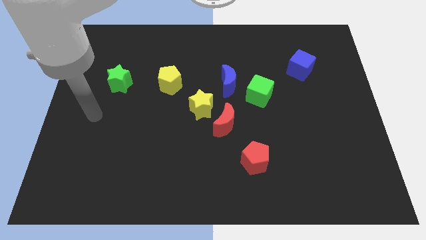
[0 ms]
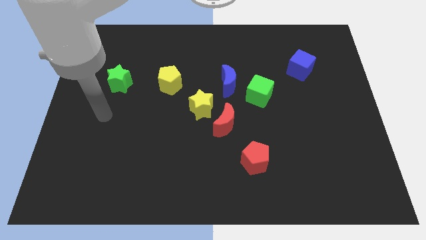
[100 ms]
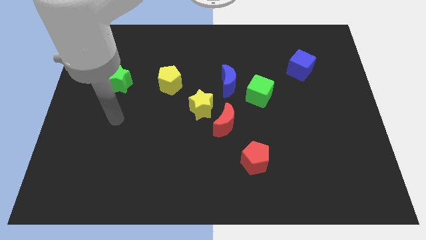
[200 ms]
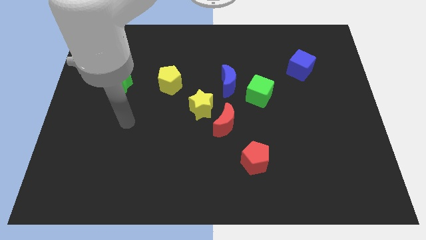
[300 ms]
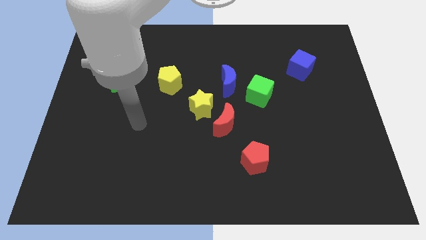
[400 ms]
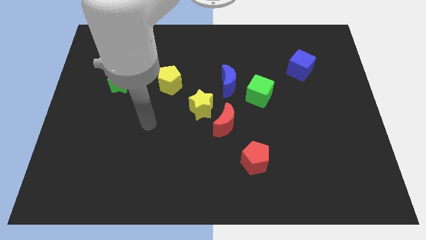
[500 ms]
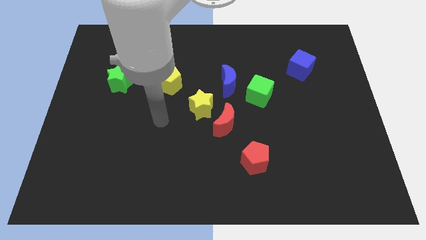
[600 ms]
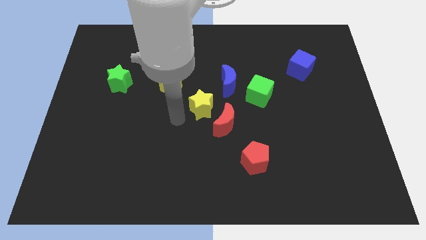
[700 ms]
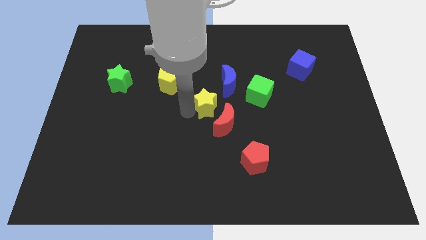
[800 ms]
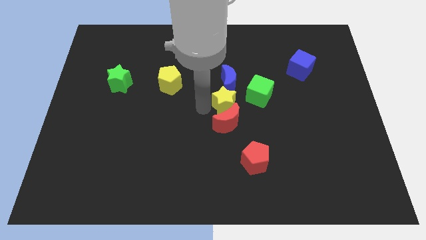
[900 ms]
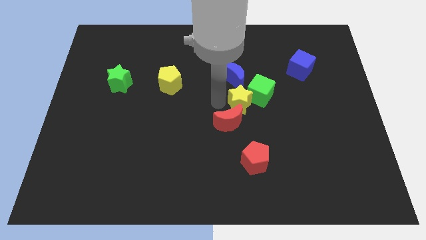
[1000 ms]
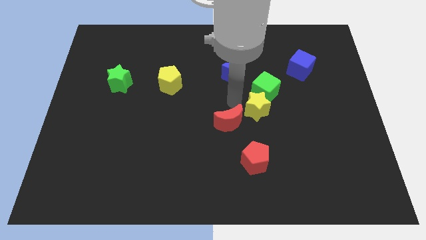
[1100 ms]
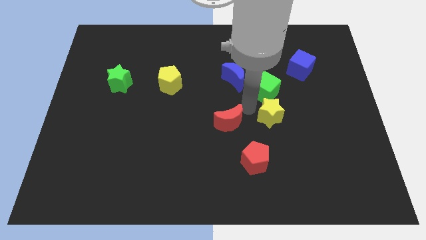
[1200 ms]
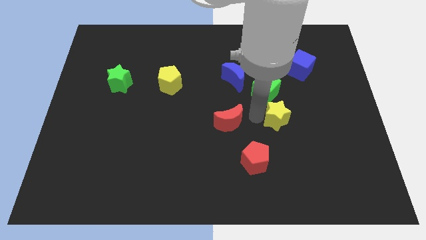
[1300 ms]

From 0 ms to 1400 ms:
move the red moon away from the yellow star

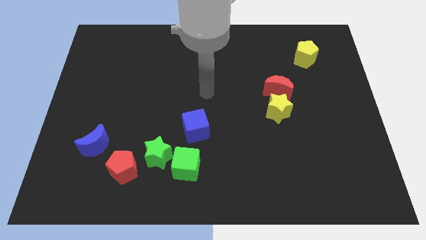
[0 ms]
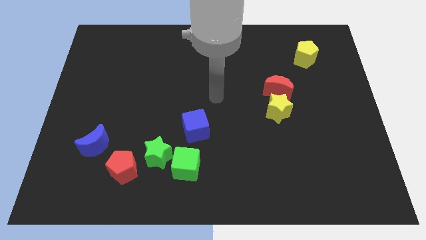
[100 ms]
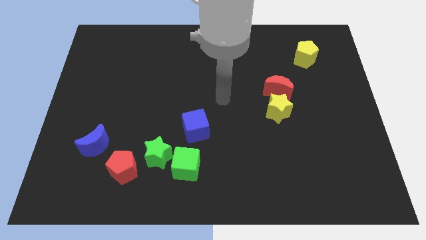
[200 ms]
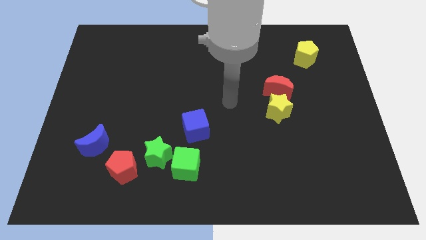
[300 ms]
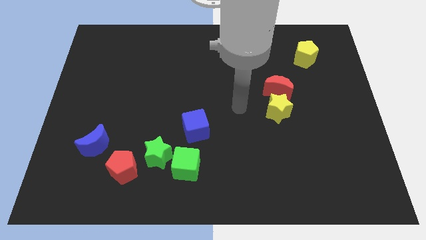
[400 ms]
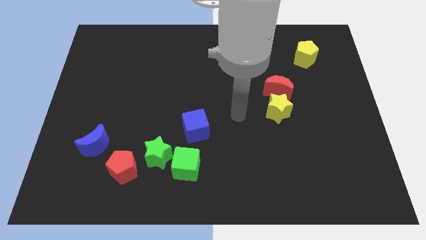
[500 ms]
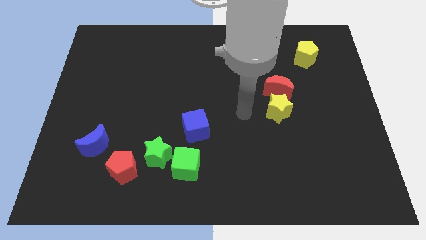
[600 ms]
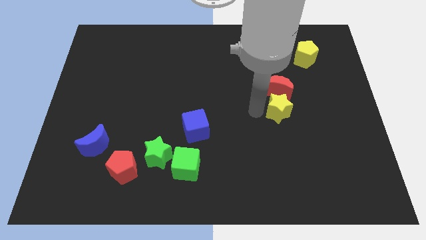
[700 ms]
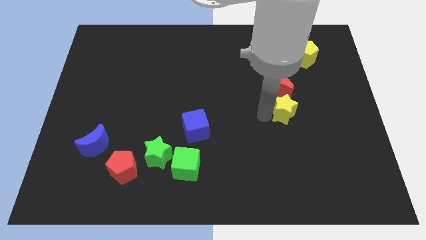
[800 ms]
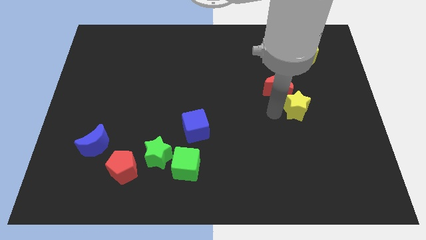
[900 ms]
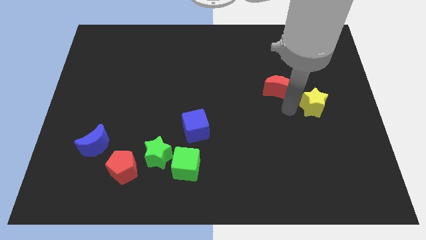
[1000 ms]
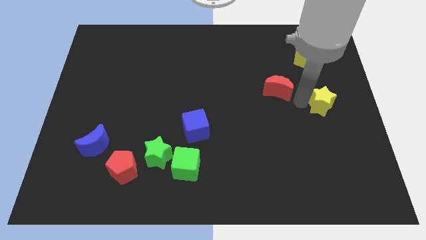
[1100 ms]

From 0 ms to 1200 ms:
separate the red moon from the yellow star

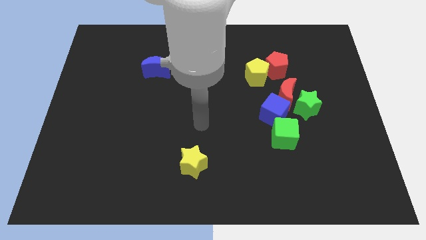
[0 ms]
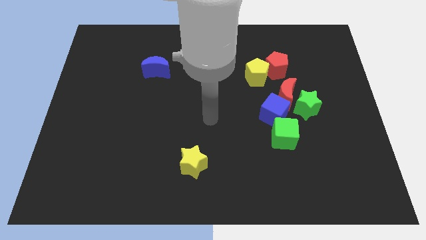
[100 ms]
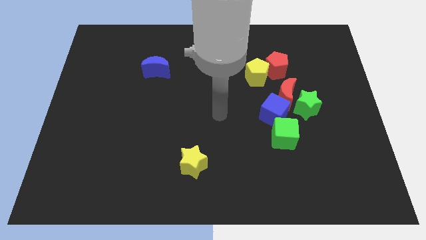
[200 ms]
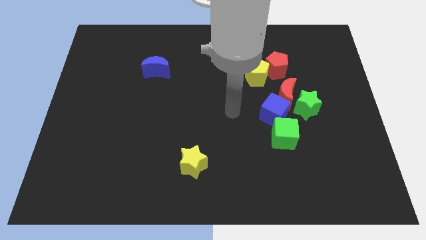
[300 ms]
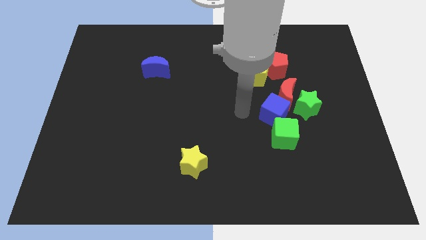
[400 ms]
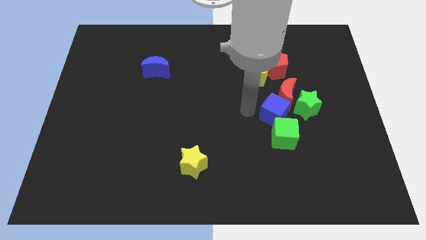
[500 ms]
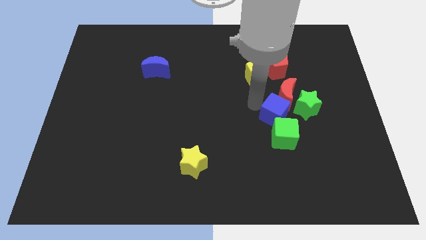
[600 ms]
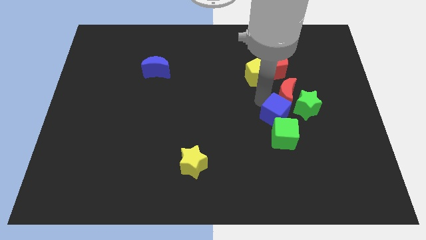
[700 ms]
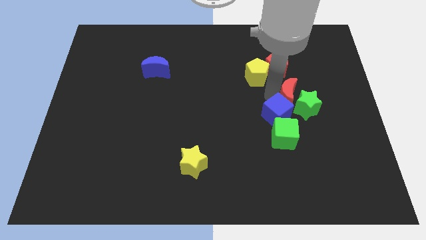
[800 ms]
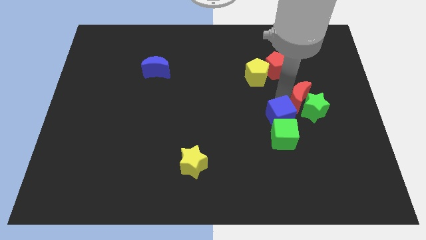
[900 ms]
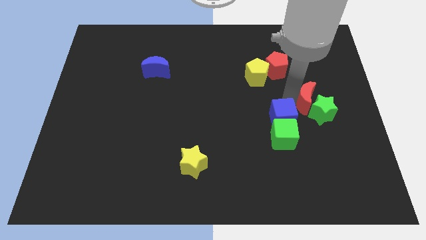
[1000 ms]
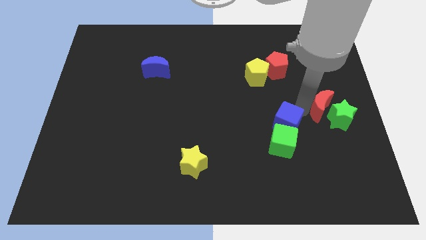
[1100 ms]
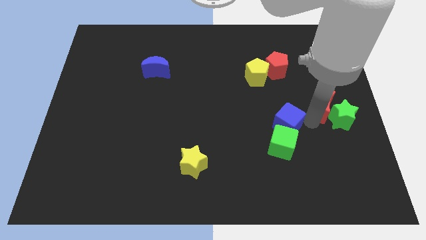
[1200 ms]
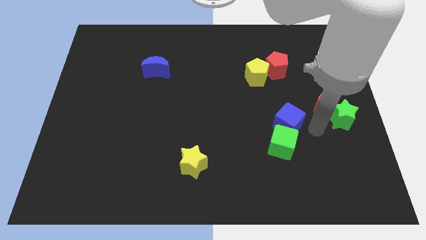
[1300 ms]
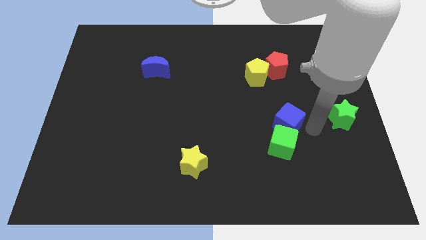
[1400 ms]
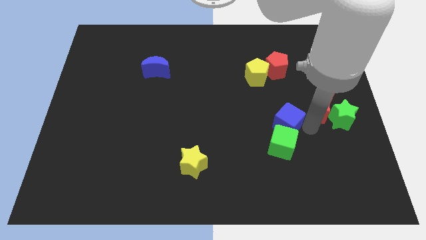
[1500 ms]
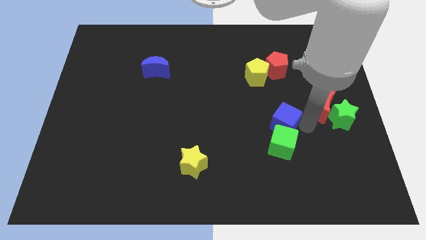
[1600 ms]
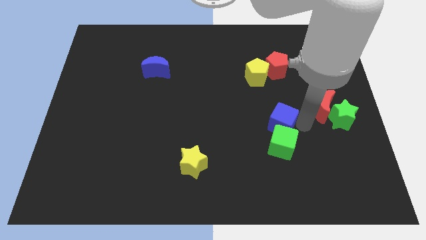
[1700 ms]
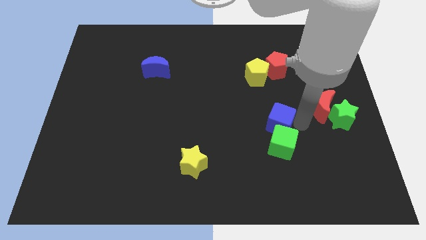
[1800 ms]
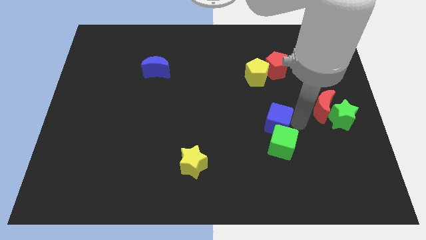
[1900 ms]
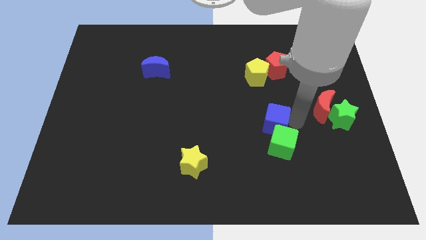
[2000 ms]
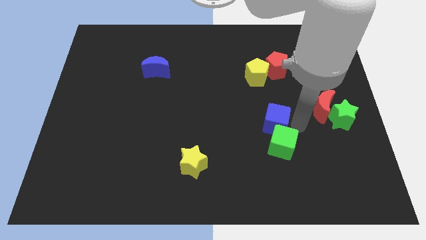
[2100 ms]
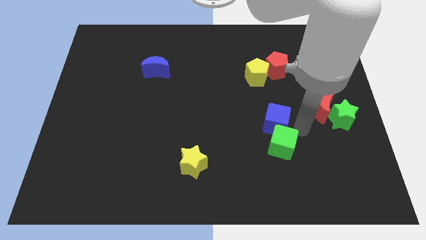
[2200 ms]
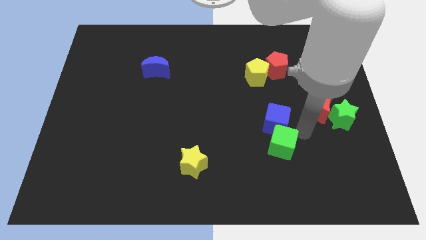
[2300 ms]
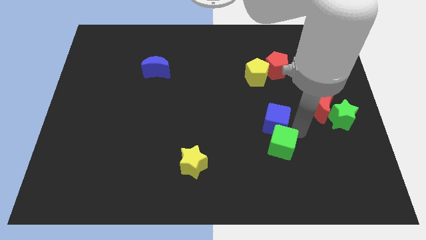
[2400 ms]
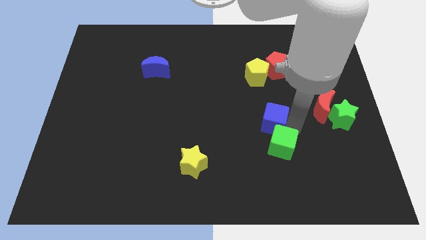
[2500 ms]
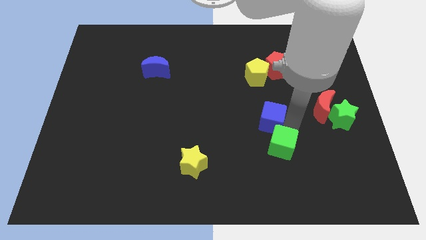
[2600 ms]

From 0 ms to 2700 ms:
pull the blue cube apart from the red moon, green cube, and green star

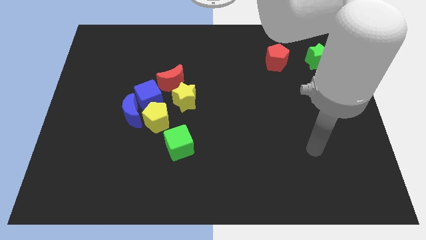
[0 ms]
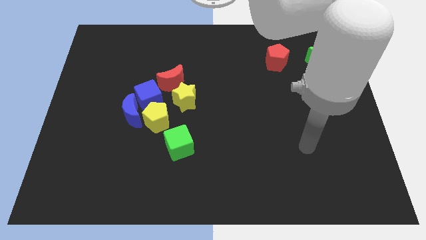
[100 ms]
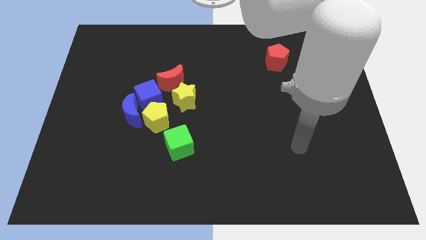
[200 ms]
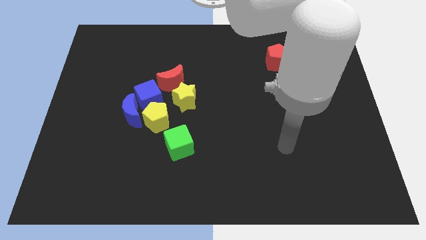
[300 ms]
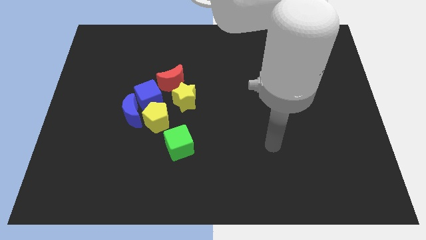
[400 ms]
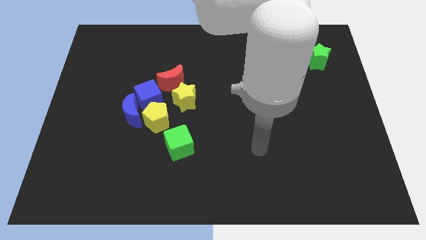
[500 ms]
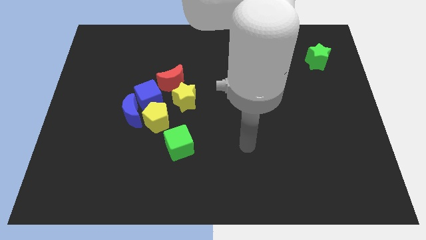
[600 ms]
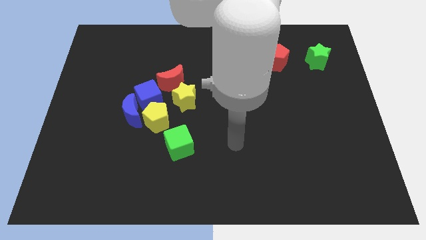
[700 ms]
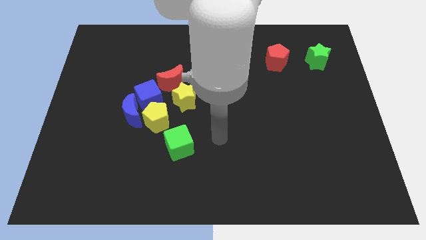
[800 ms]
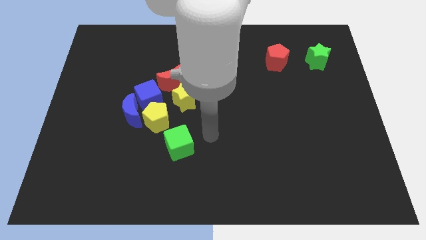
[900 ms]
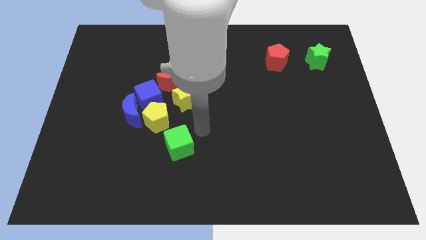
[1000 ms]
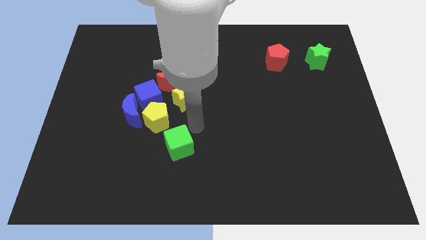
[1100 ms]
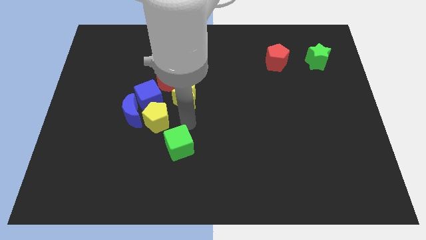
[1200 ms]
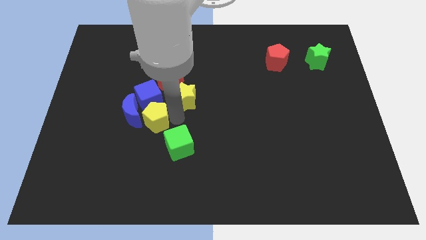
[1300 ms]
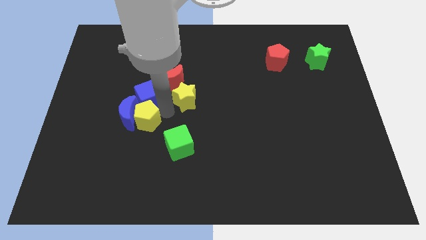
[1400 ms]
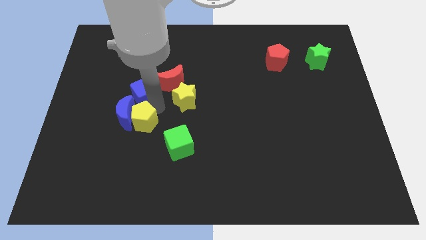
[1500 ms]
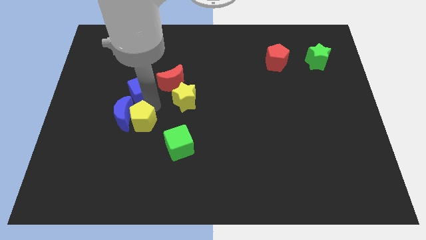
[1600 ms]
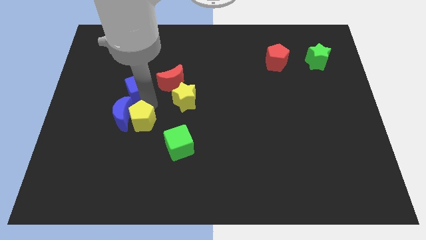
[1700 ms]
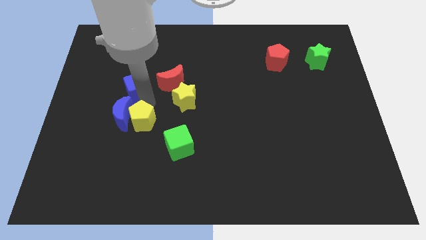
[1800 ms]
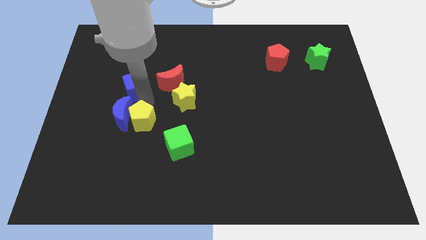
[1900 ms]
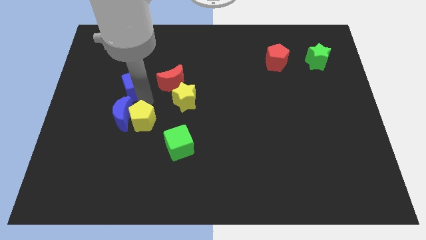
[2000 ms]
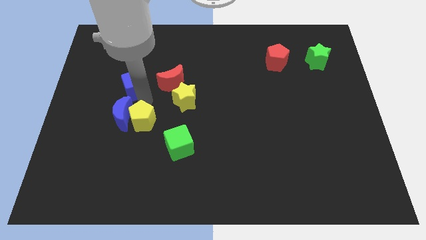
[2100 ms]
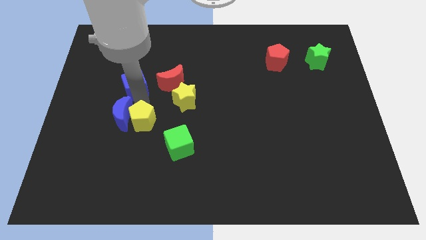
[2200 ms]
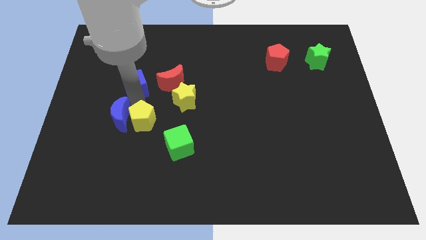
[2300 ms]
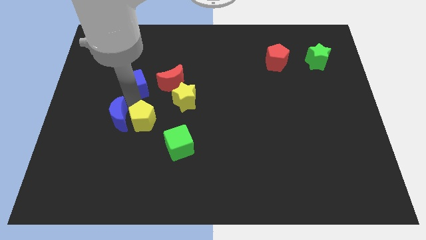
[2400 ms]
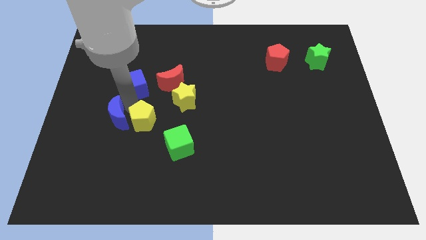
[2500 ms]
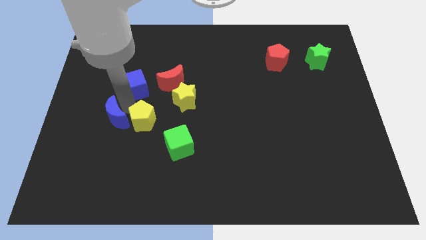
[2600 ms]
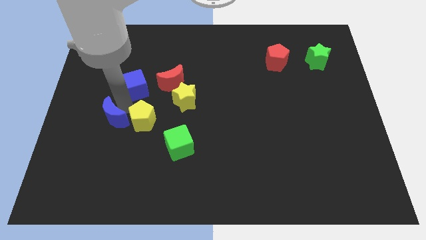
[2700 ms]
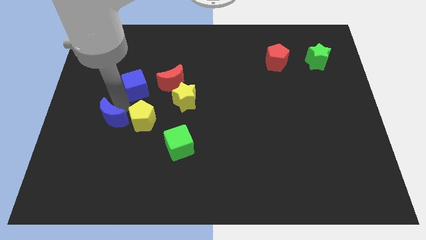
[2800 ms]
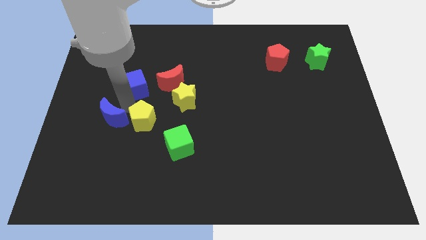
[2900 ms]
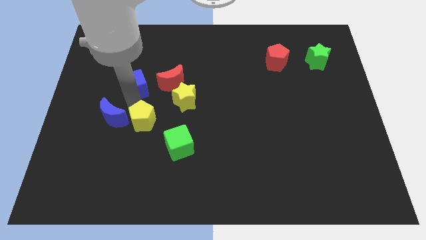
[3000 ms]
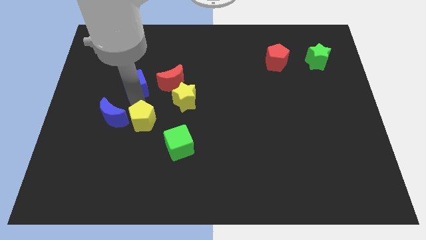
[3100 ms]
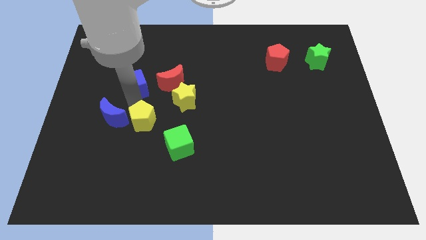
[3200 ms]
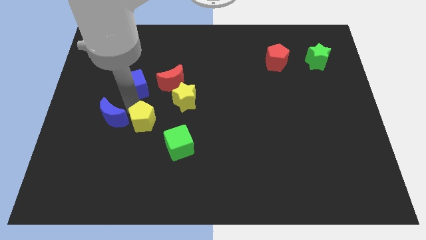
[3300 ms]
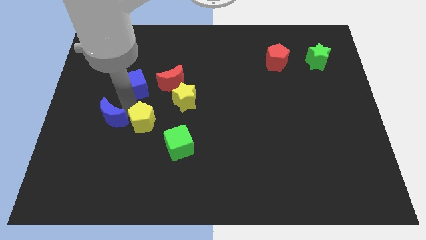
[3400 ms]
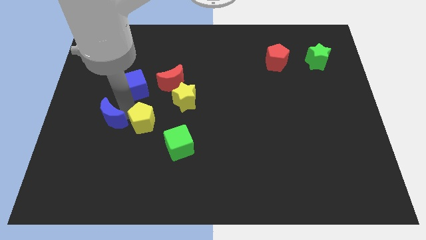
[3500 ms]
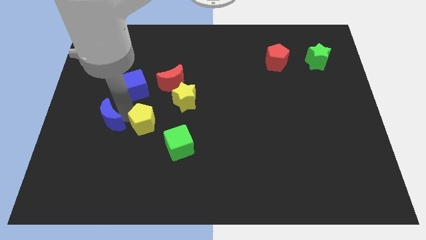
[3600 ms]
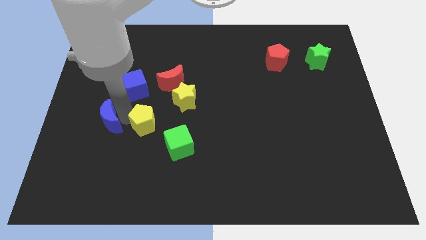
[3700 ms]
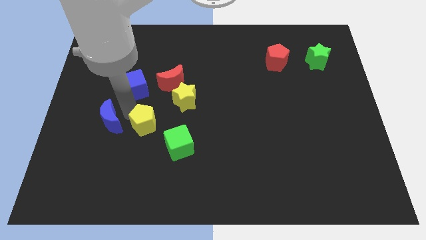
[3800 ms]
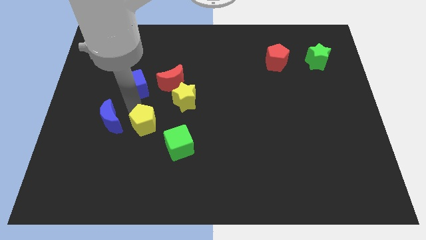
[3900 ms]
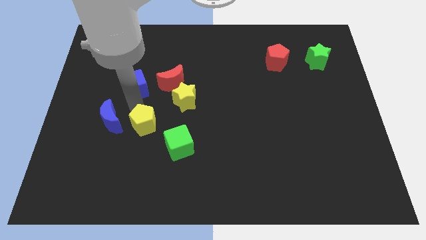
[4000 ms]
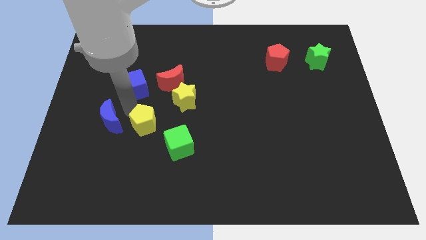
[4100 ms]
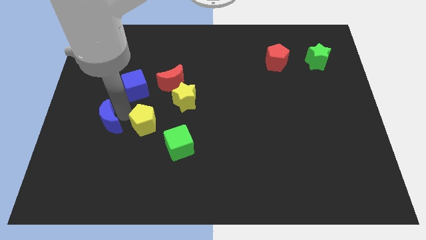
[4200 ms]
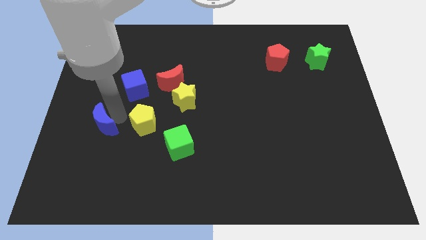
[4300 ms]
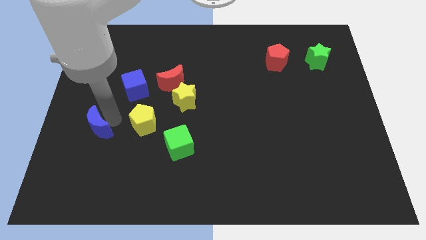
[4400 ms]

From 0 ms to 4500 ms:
pull the blue moon apart from the blue cube and yellow pentagon
